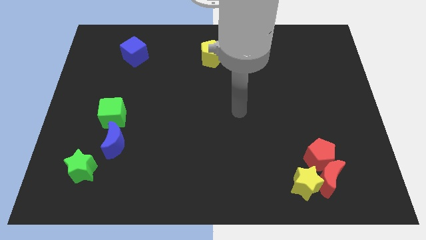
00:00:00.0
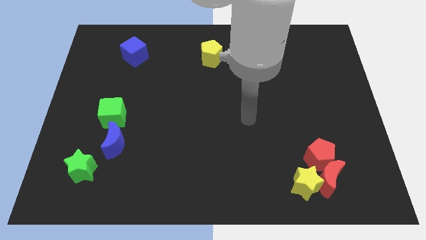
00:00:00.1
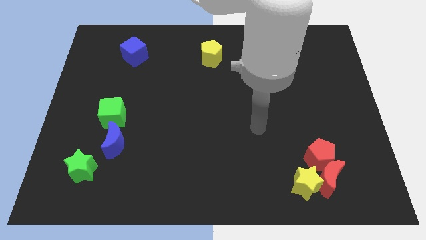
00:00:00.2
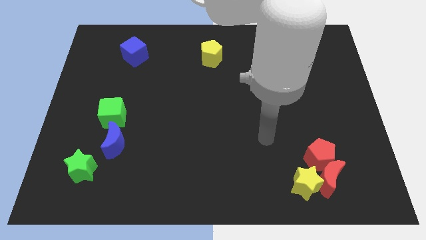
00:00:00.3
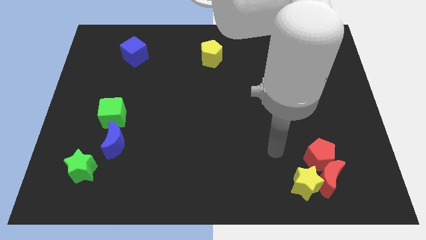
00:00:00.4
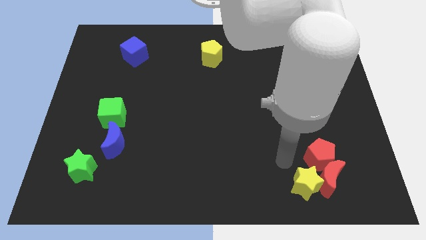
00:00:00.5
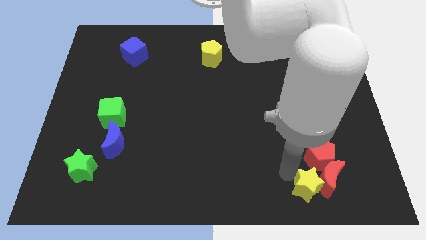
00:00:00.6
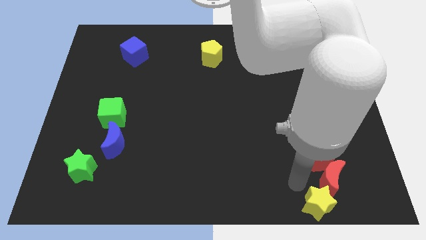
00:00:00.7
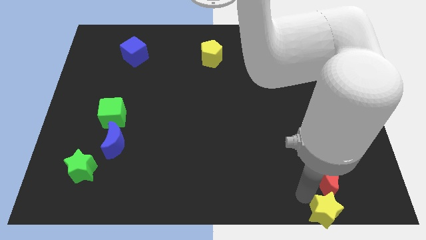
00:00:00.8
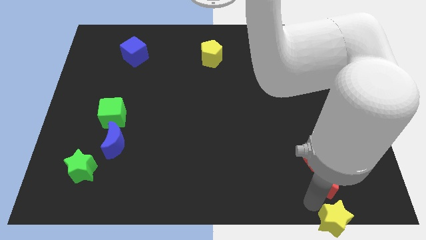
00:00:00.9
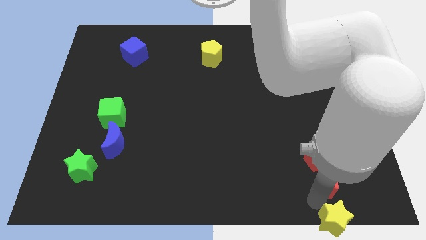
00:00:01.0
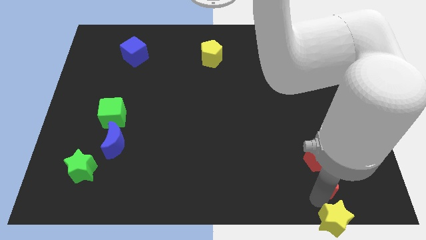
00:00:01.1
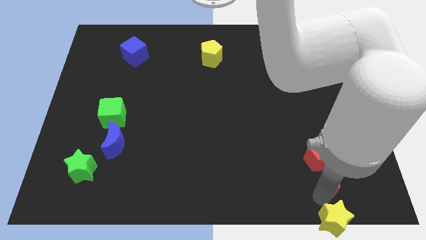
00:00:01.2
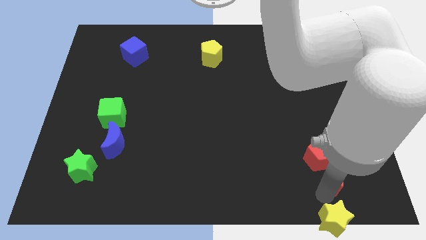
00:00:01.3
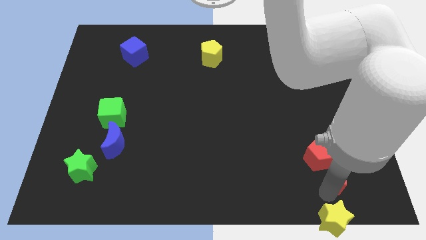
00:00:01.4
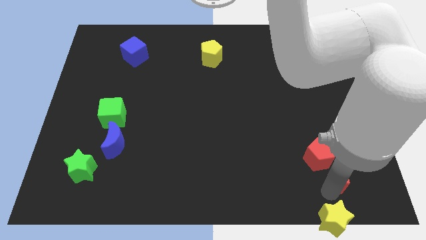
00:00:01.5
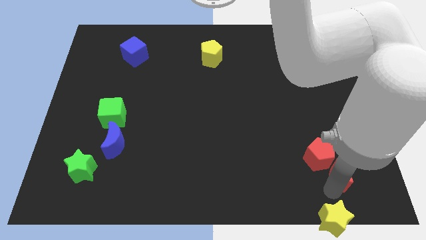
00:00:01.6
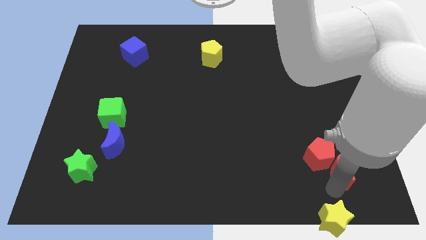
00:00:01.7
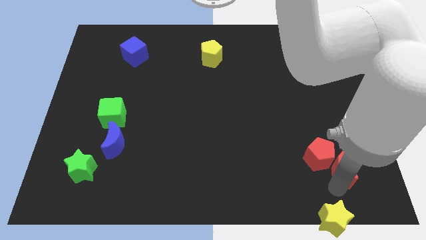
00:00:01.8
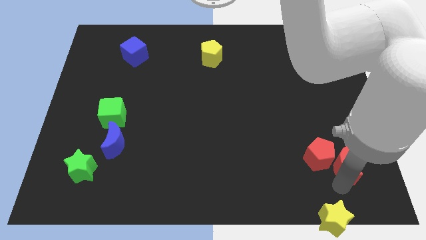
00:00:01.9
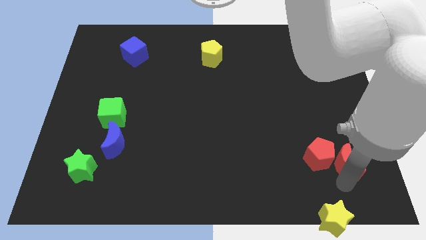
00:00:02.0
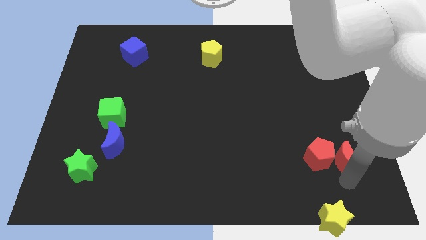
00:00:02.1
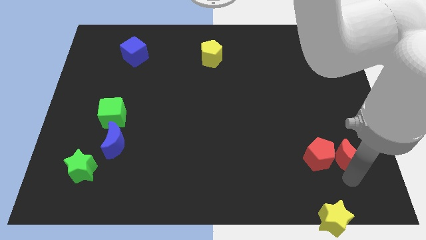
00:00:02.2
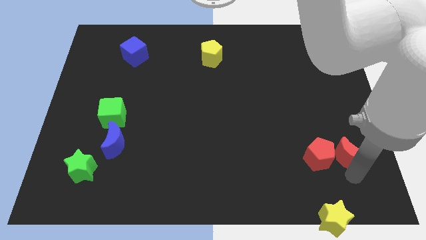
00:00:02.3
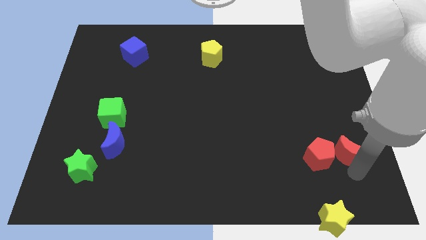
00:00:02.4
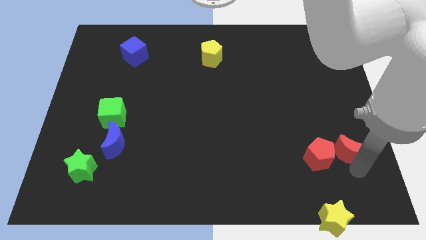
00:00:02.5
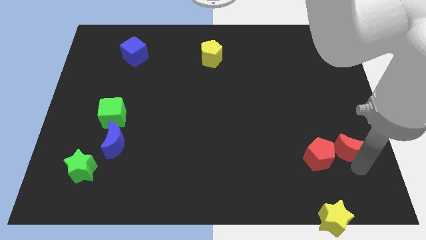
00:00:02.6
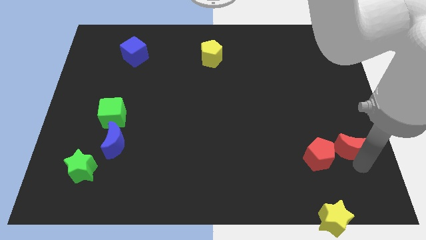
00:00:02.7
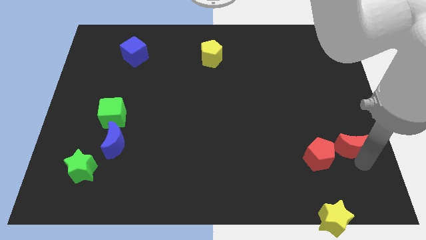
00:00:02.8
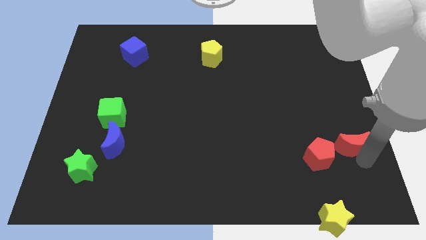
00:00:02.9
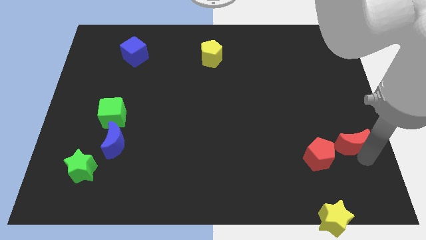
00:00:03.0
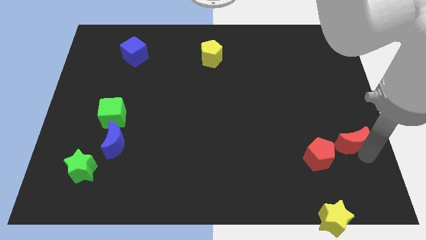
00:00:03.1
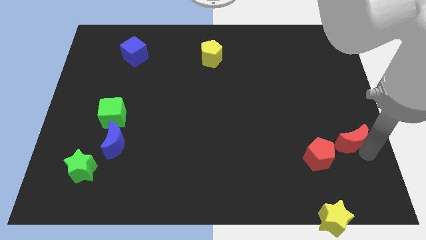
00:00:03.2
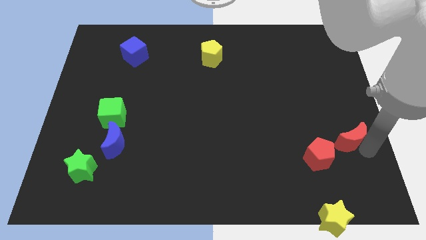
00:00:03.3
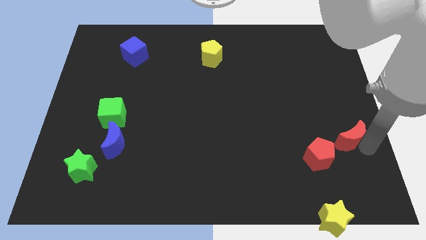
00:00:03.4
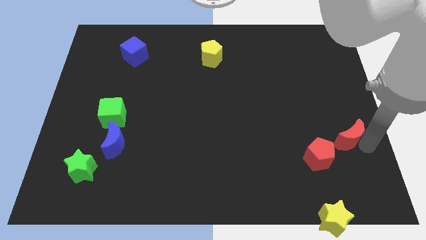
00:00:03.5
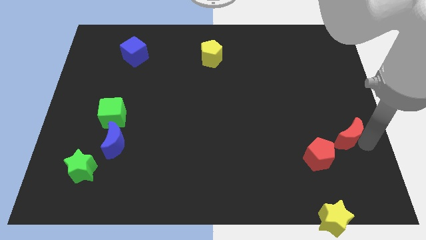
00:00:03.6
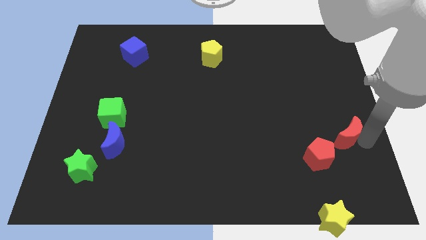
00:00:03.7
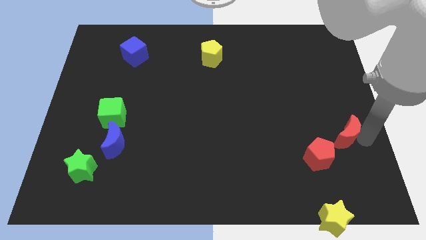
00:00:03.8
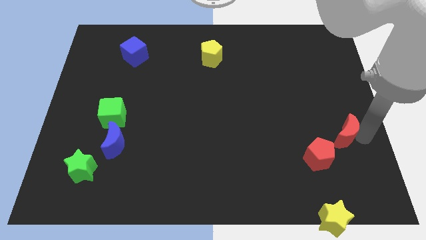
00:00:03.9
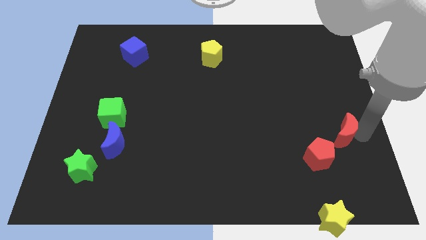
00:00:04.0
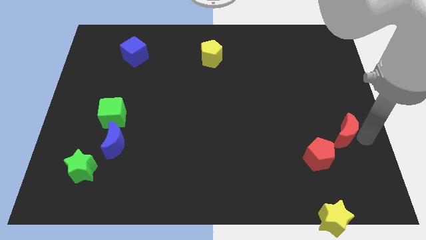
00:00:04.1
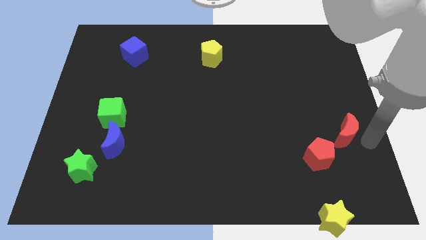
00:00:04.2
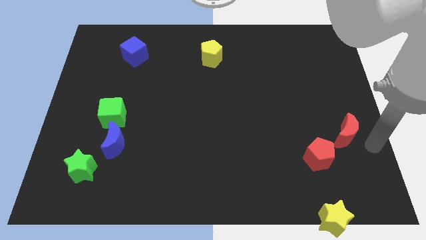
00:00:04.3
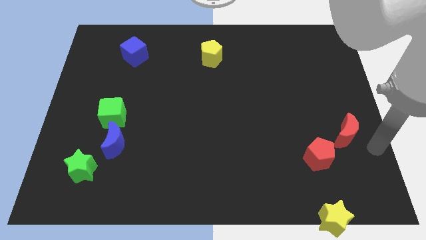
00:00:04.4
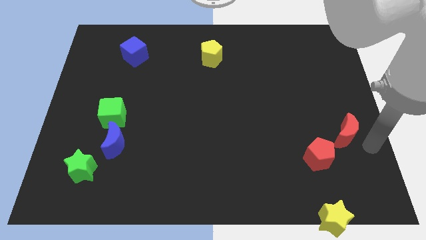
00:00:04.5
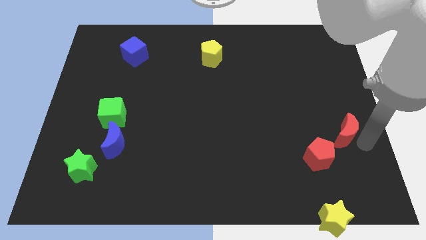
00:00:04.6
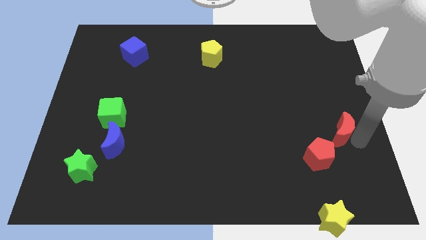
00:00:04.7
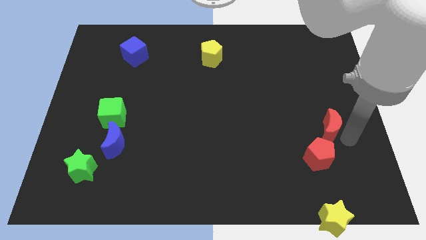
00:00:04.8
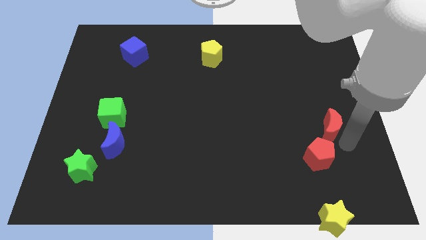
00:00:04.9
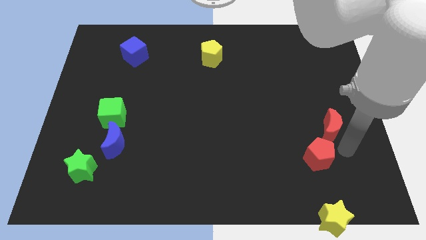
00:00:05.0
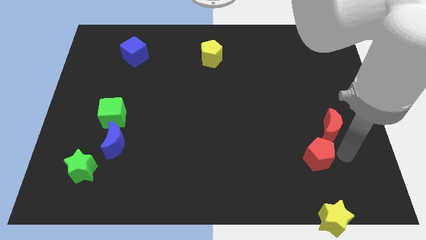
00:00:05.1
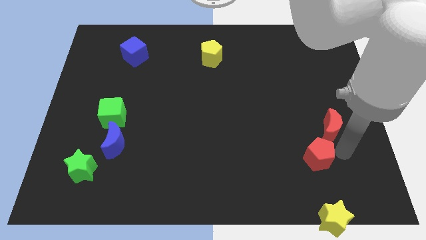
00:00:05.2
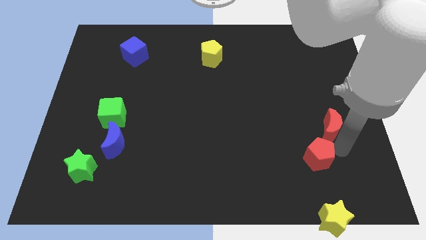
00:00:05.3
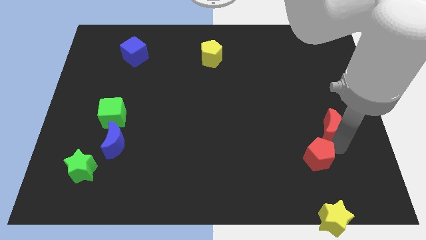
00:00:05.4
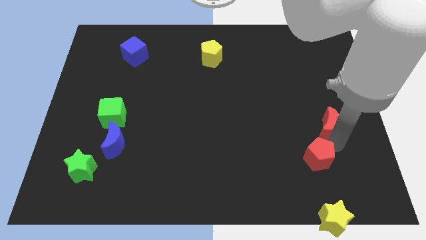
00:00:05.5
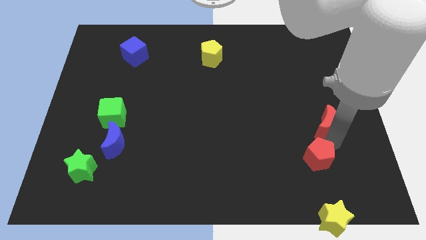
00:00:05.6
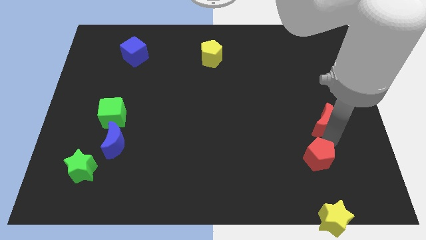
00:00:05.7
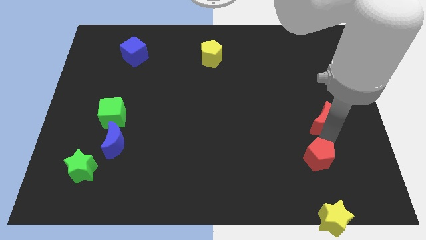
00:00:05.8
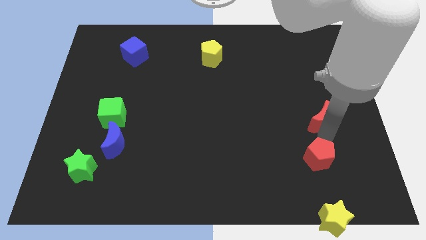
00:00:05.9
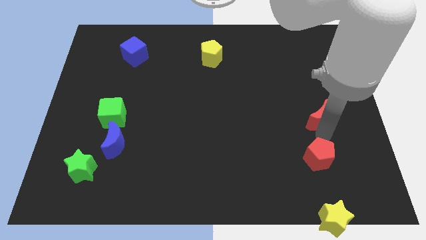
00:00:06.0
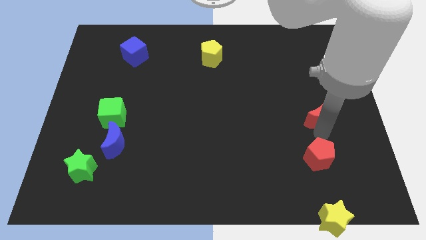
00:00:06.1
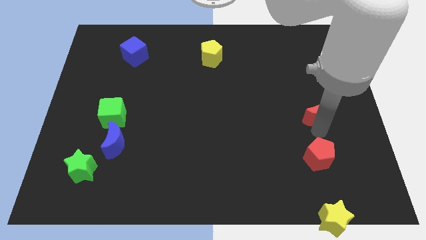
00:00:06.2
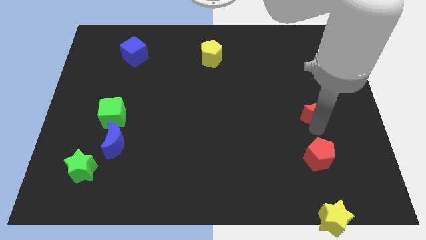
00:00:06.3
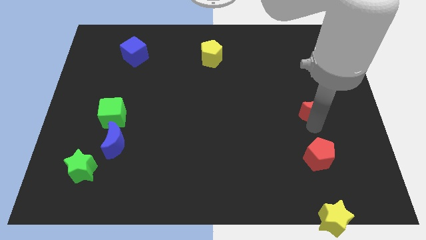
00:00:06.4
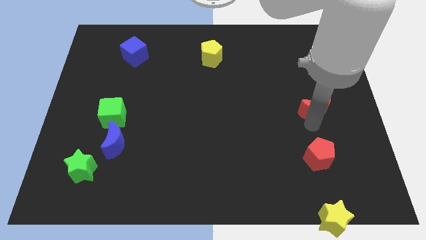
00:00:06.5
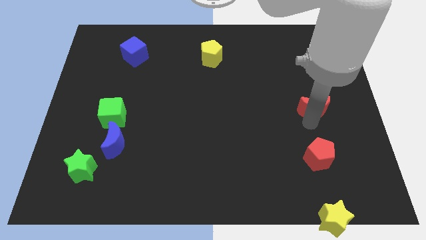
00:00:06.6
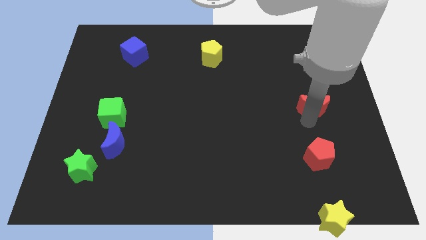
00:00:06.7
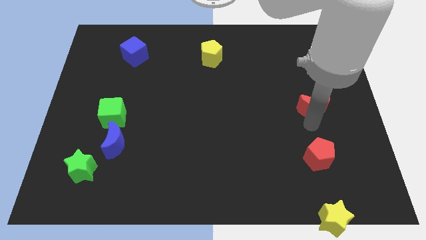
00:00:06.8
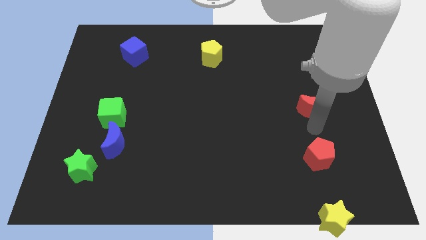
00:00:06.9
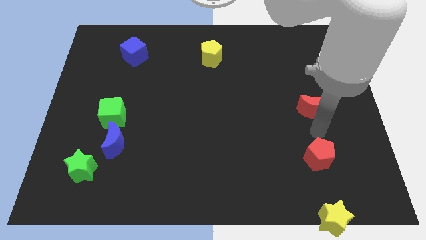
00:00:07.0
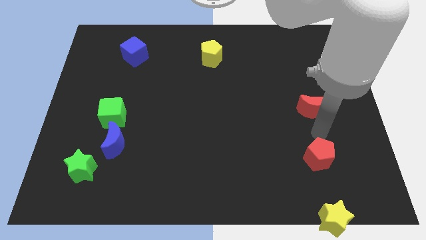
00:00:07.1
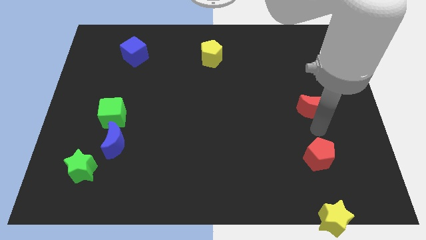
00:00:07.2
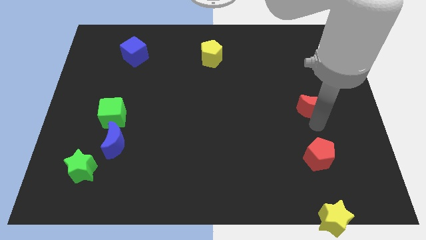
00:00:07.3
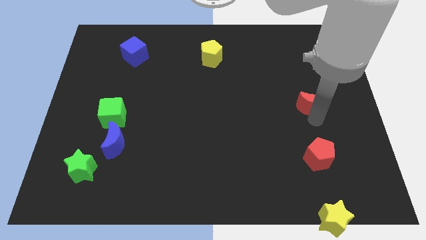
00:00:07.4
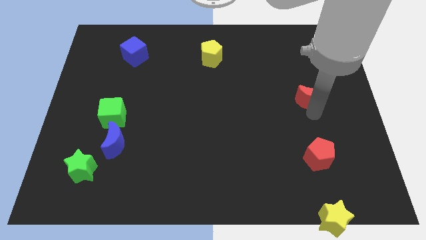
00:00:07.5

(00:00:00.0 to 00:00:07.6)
move the red moon upwards

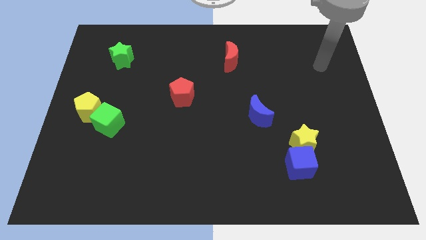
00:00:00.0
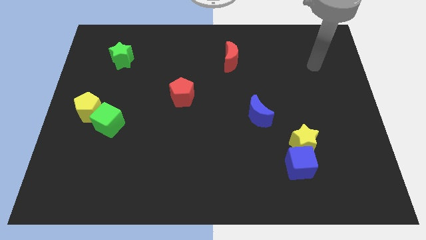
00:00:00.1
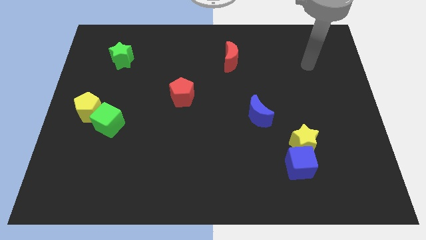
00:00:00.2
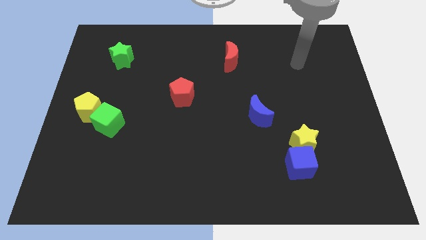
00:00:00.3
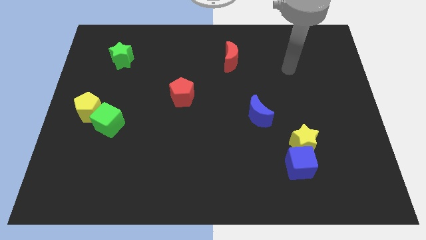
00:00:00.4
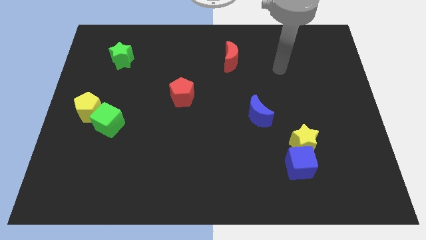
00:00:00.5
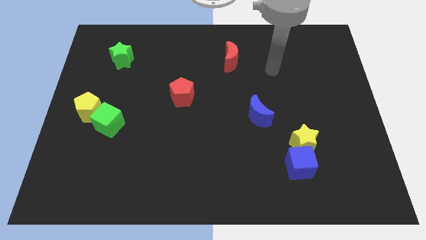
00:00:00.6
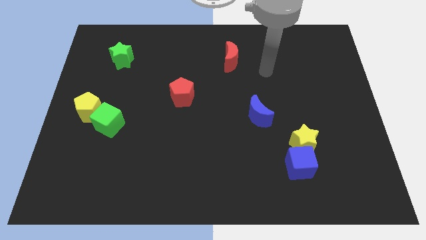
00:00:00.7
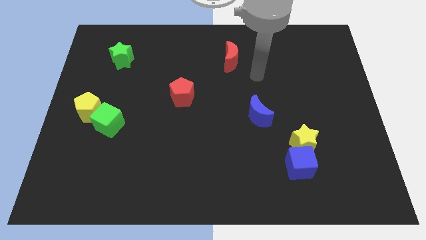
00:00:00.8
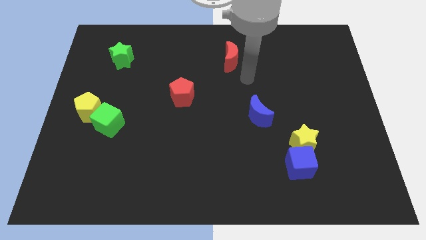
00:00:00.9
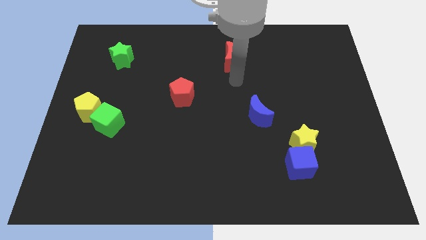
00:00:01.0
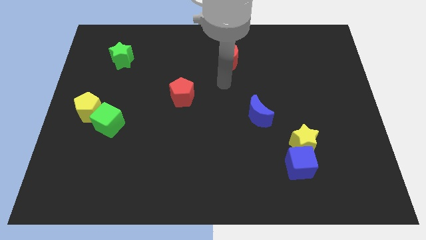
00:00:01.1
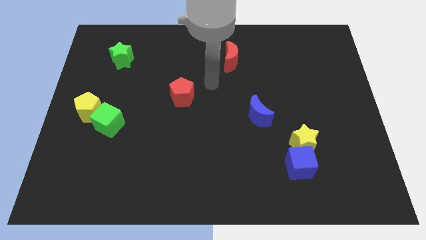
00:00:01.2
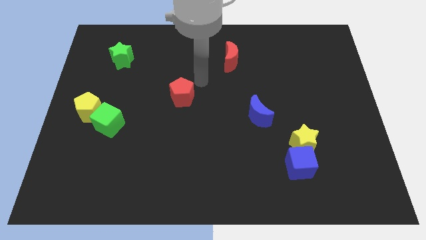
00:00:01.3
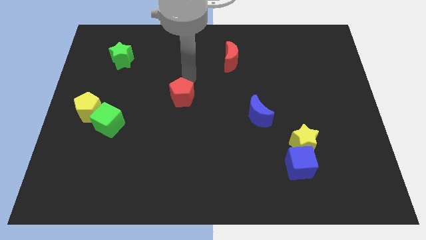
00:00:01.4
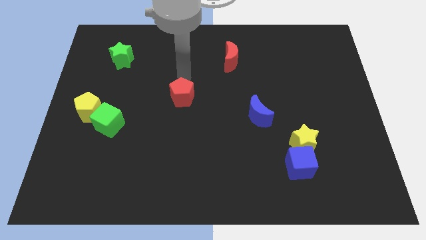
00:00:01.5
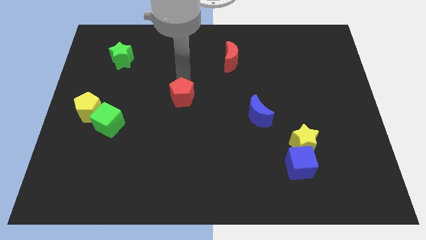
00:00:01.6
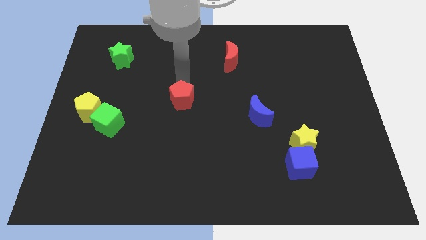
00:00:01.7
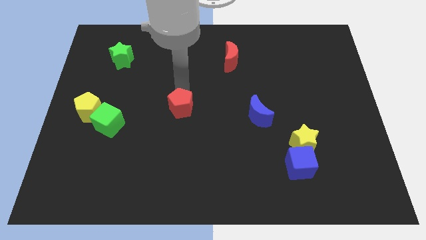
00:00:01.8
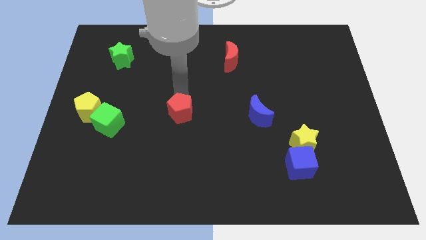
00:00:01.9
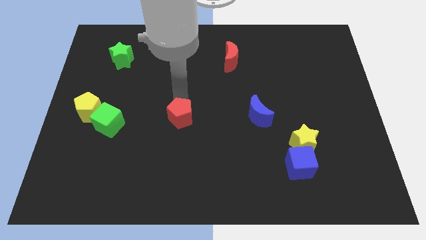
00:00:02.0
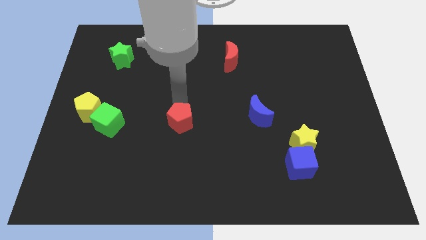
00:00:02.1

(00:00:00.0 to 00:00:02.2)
slightly push the red pentagon downwards
